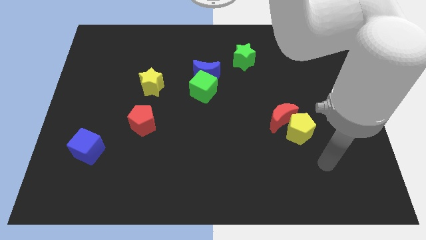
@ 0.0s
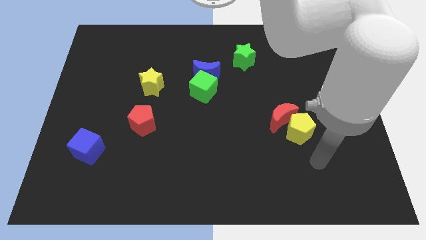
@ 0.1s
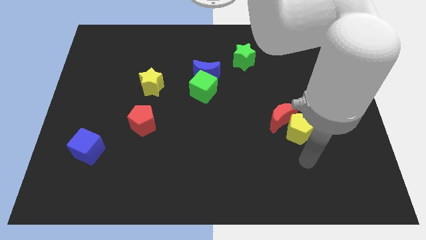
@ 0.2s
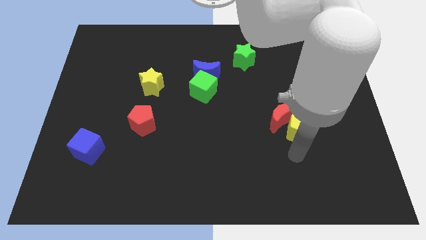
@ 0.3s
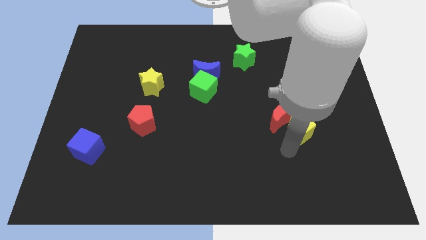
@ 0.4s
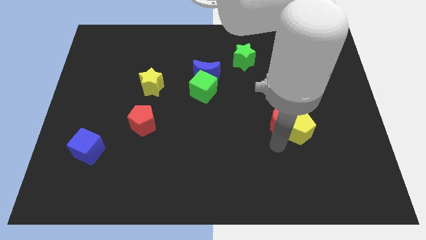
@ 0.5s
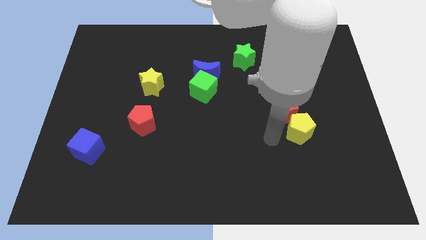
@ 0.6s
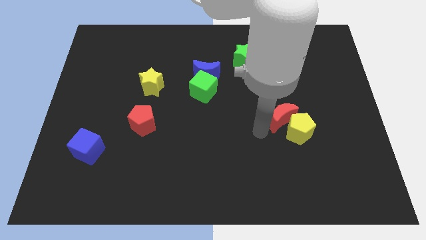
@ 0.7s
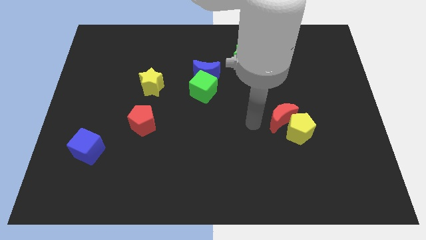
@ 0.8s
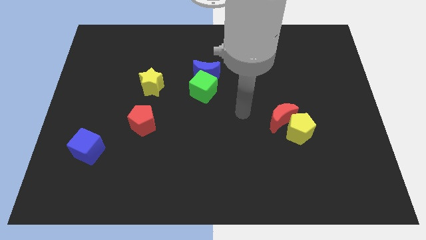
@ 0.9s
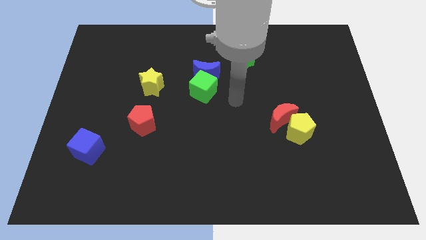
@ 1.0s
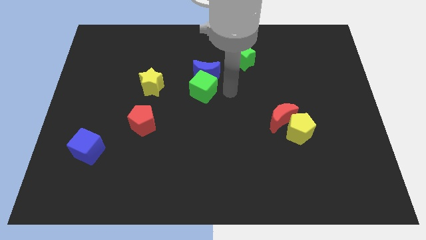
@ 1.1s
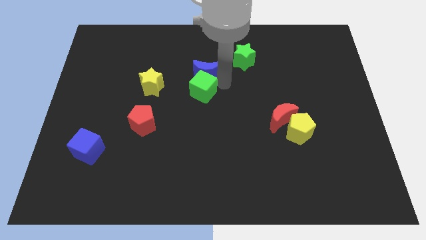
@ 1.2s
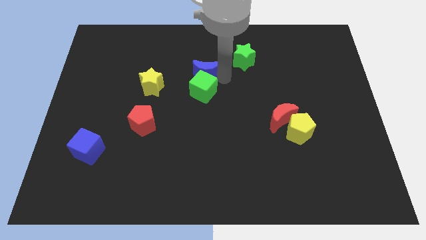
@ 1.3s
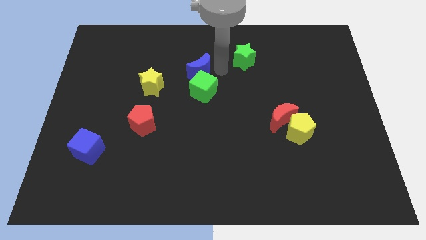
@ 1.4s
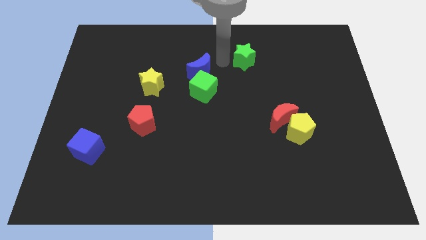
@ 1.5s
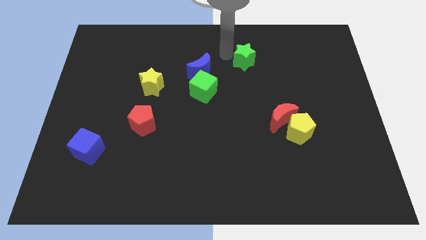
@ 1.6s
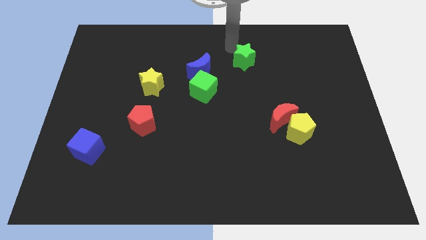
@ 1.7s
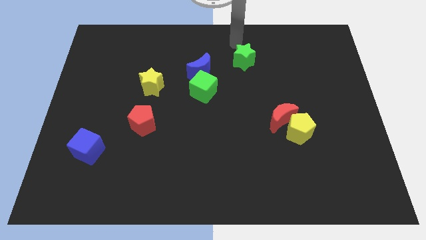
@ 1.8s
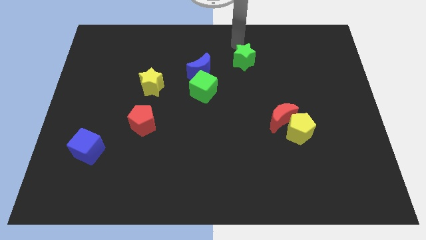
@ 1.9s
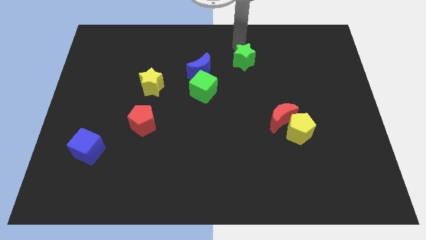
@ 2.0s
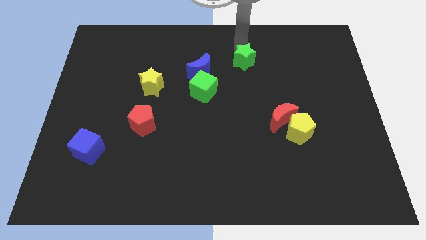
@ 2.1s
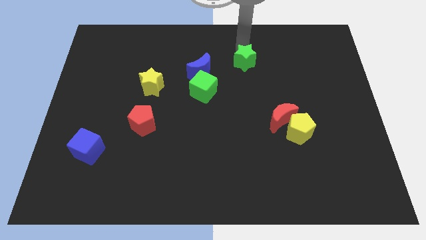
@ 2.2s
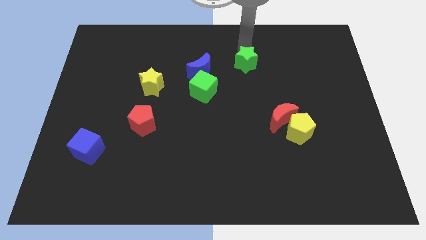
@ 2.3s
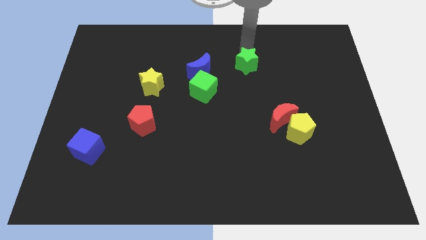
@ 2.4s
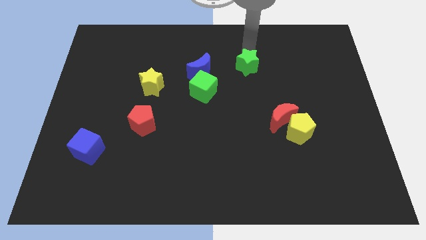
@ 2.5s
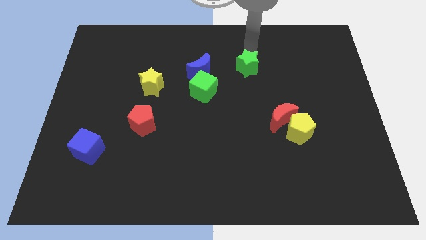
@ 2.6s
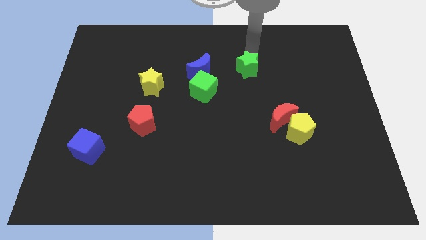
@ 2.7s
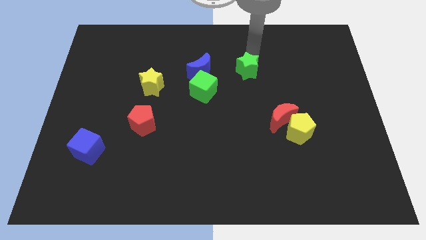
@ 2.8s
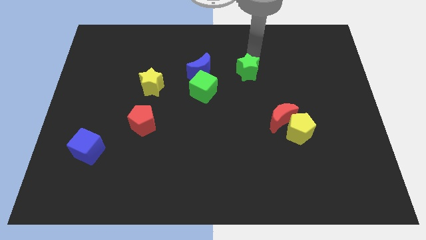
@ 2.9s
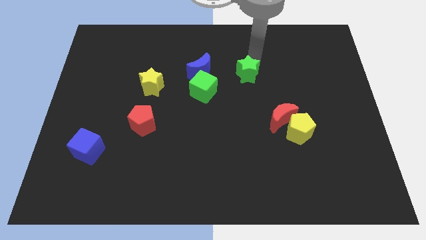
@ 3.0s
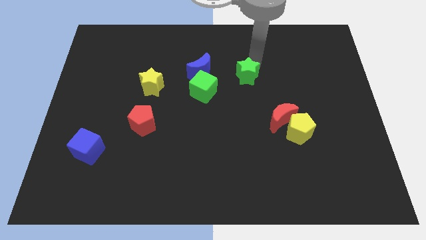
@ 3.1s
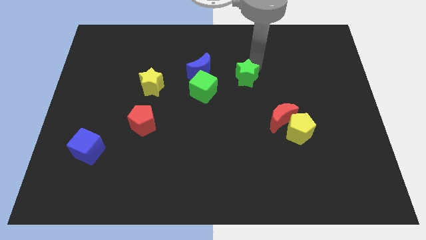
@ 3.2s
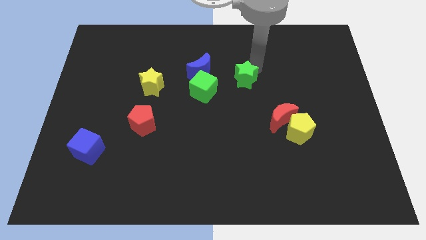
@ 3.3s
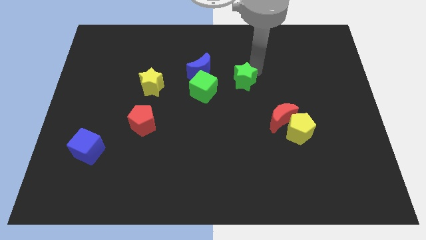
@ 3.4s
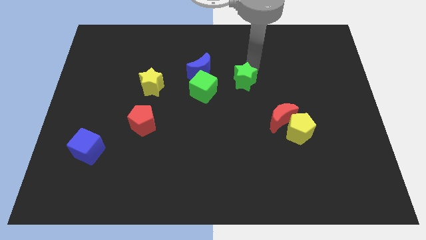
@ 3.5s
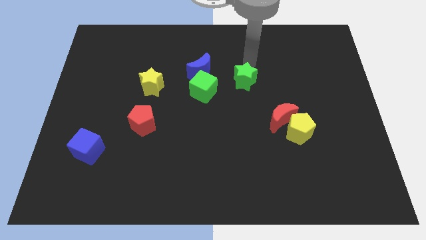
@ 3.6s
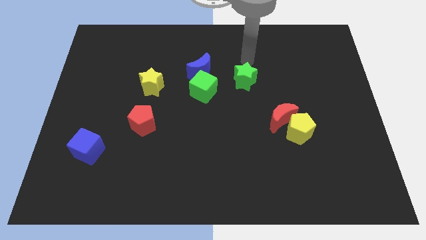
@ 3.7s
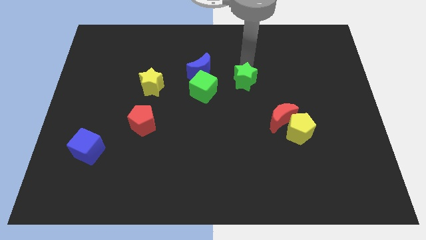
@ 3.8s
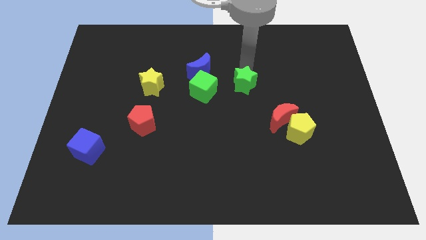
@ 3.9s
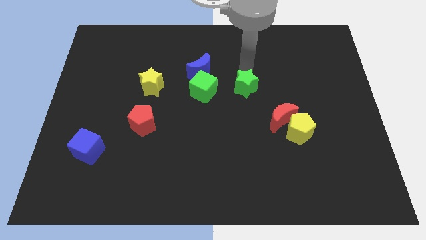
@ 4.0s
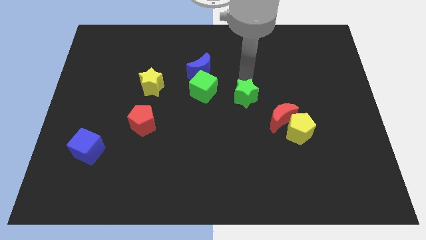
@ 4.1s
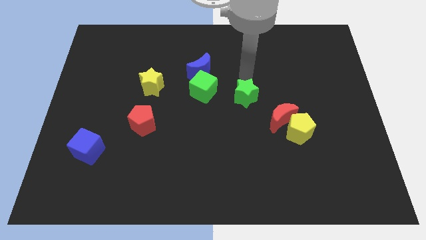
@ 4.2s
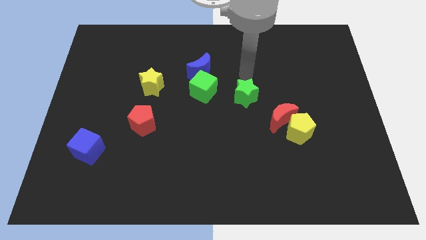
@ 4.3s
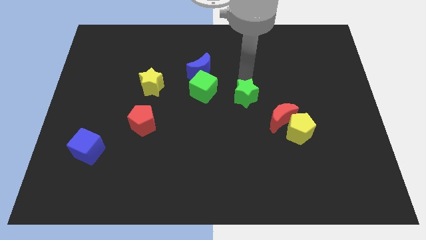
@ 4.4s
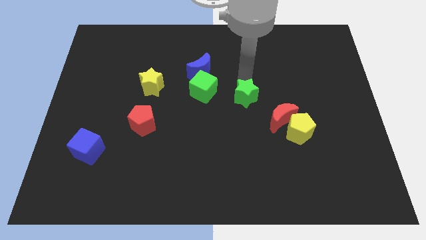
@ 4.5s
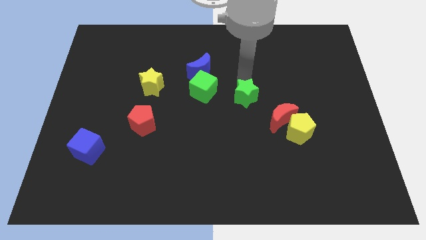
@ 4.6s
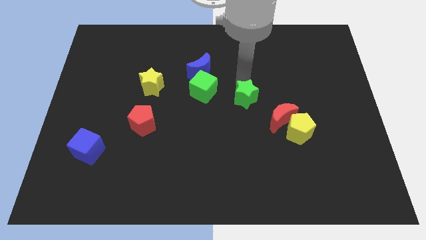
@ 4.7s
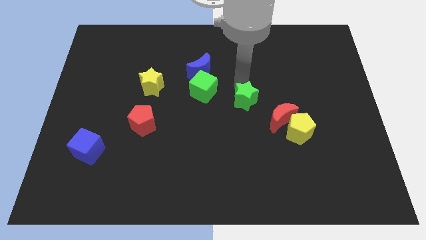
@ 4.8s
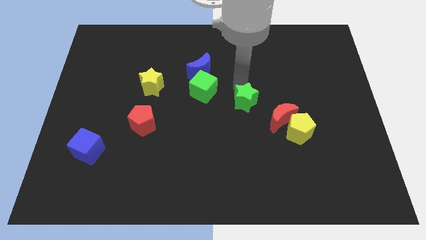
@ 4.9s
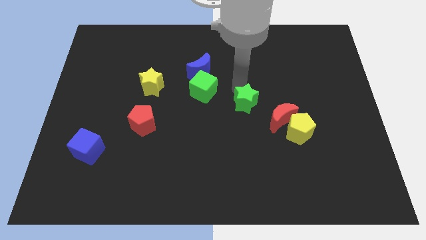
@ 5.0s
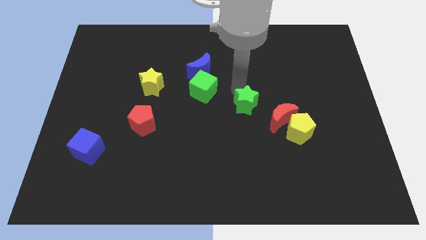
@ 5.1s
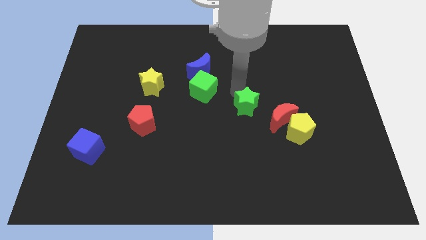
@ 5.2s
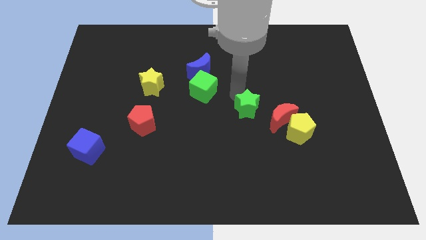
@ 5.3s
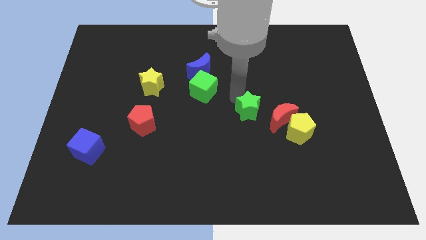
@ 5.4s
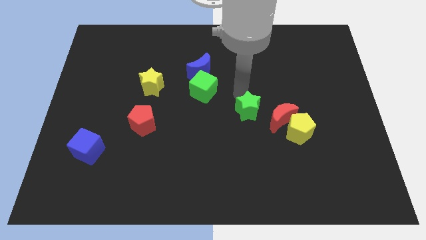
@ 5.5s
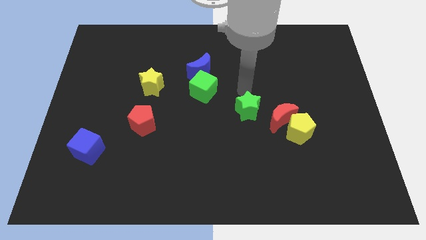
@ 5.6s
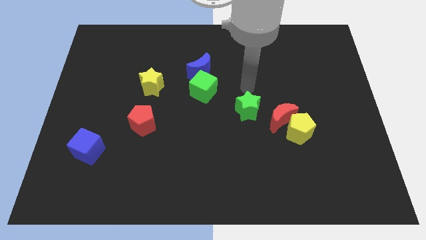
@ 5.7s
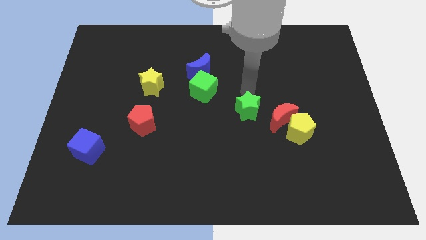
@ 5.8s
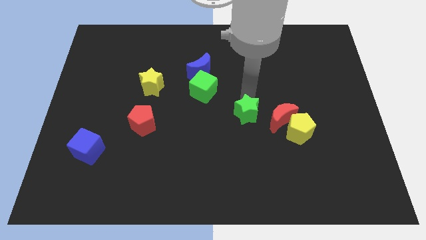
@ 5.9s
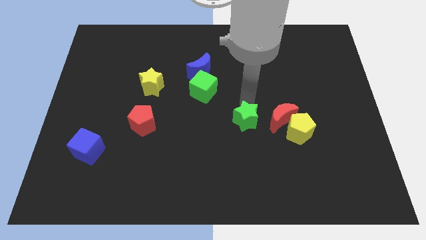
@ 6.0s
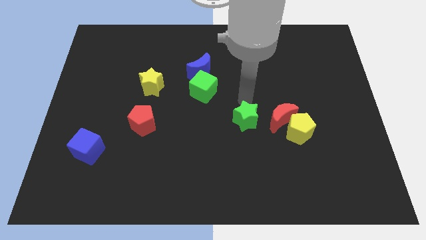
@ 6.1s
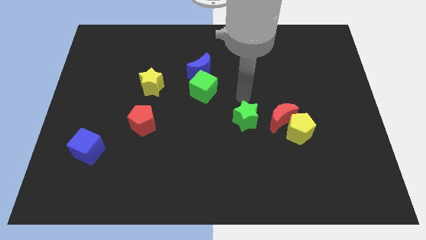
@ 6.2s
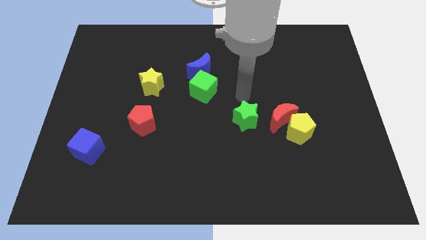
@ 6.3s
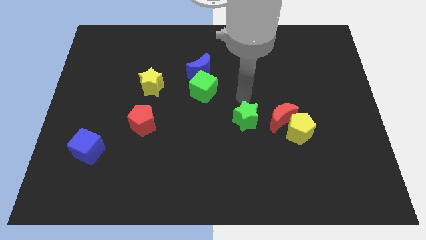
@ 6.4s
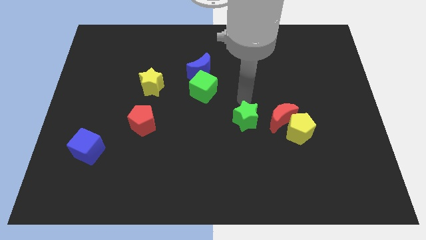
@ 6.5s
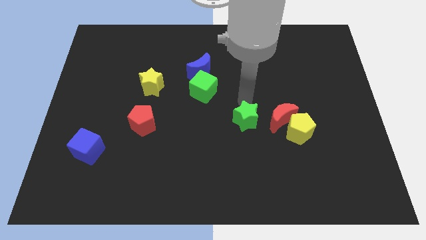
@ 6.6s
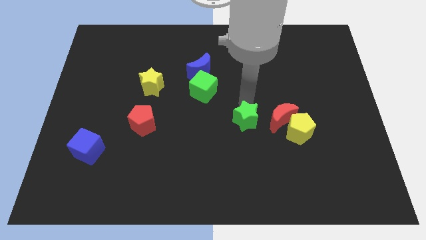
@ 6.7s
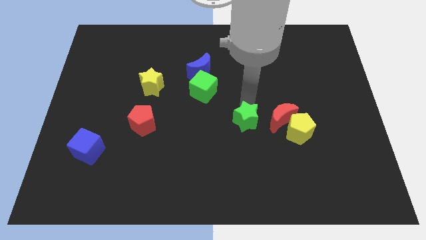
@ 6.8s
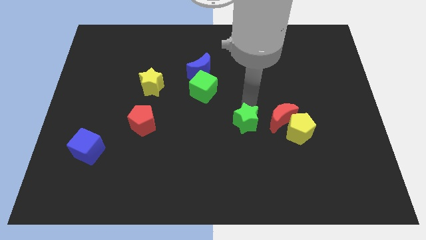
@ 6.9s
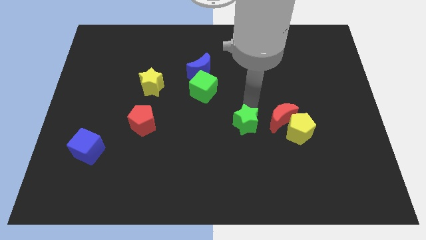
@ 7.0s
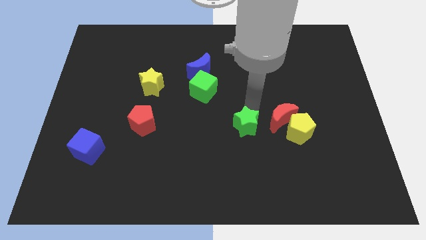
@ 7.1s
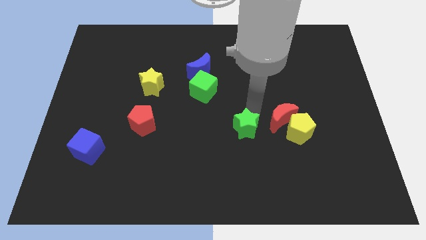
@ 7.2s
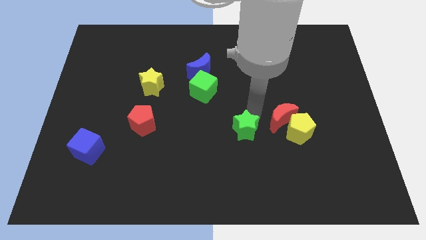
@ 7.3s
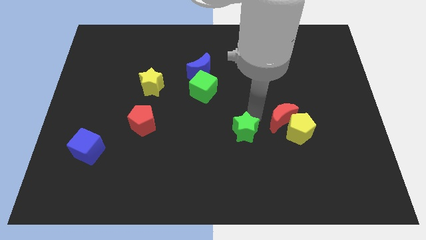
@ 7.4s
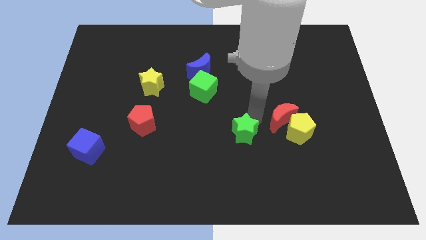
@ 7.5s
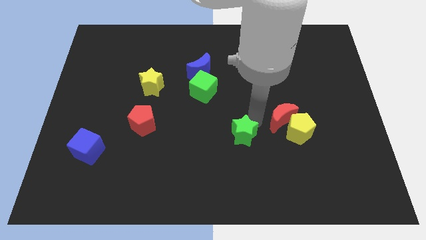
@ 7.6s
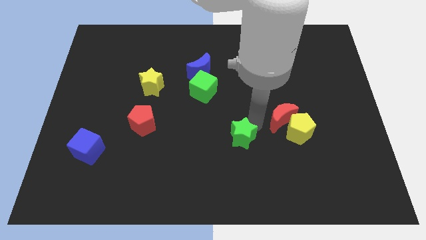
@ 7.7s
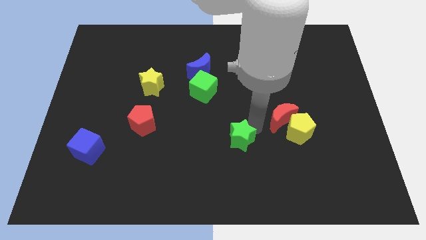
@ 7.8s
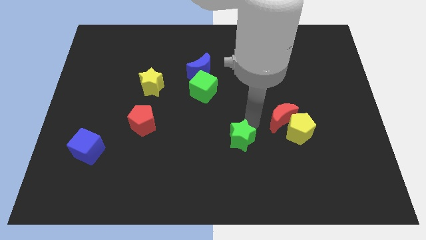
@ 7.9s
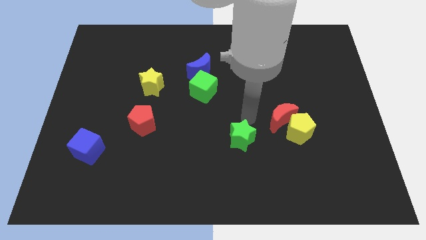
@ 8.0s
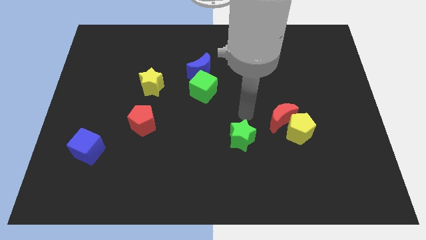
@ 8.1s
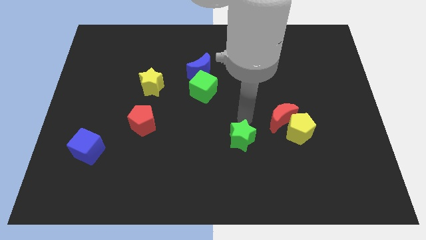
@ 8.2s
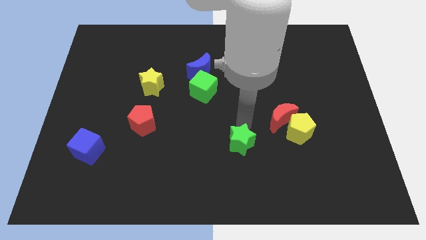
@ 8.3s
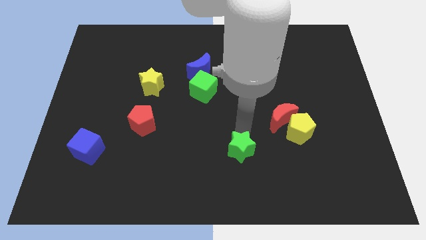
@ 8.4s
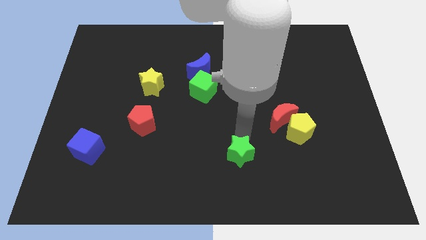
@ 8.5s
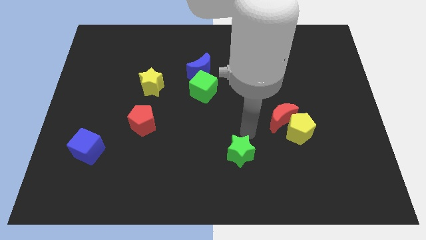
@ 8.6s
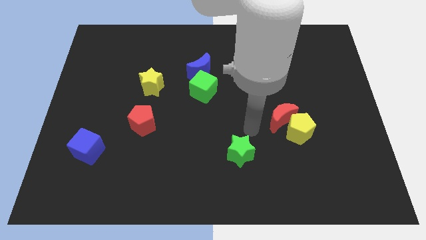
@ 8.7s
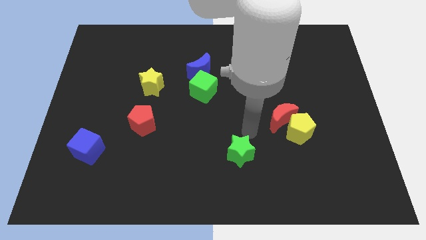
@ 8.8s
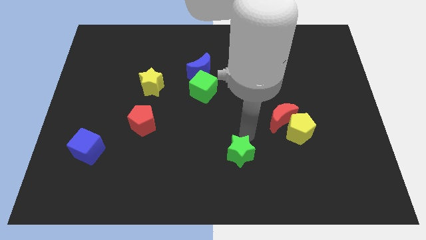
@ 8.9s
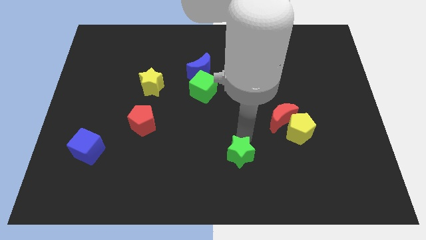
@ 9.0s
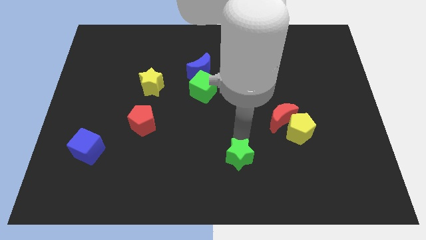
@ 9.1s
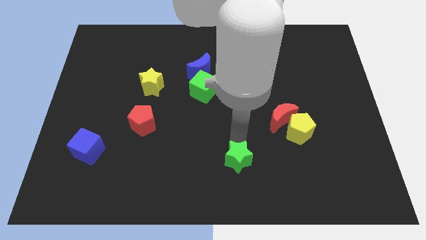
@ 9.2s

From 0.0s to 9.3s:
put the green star to the bottom
